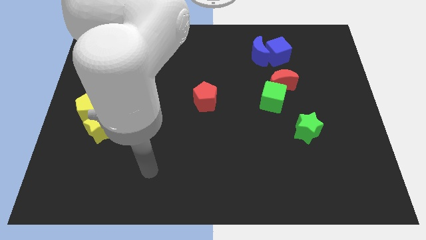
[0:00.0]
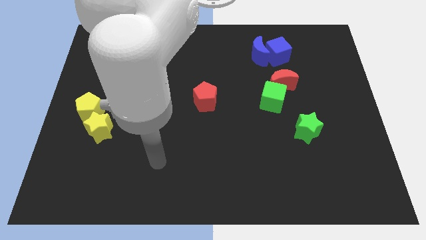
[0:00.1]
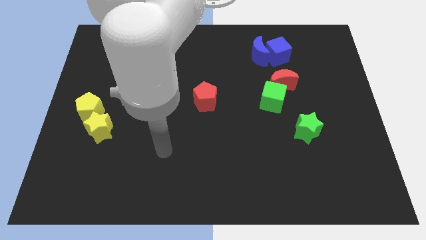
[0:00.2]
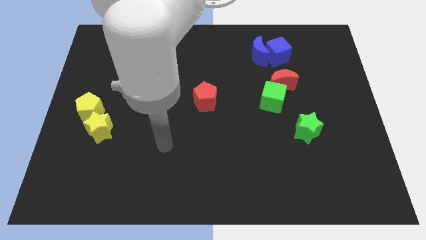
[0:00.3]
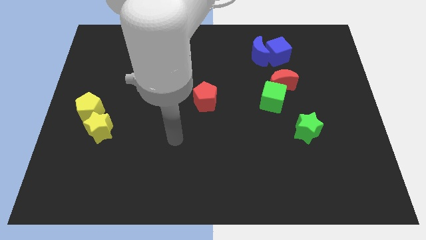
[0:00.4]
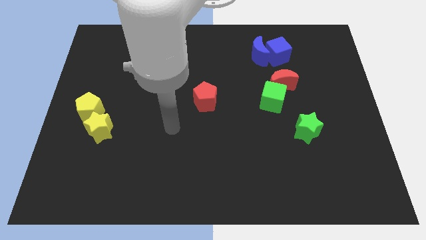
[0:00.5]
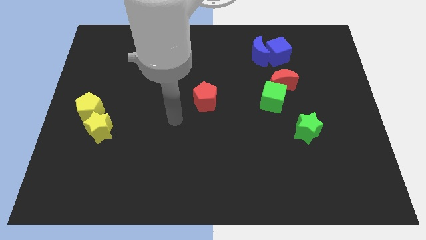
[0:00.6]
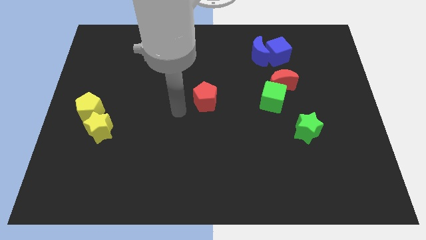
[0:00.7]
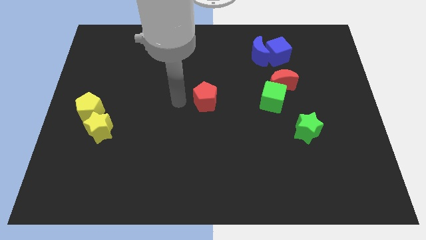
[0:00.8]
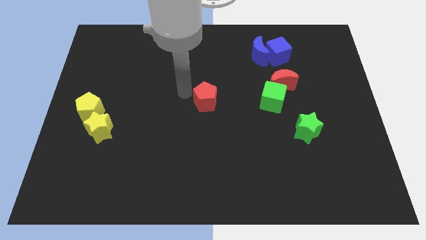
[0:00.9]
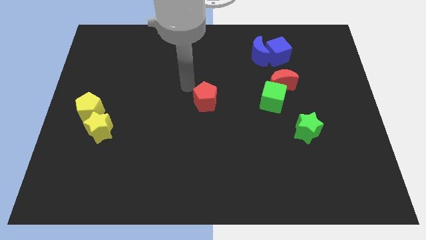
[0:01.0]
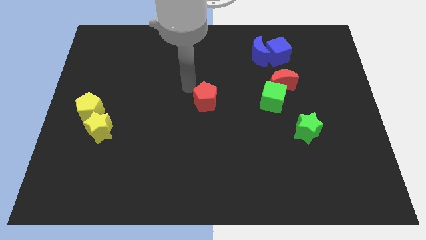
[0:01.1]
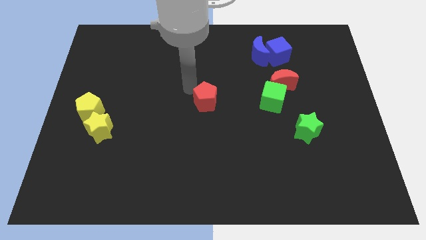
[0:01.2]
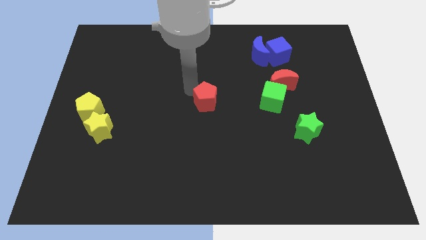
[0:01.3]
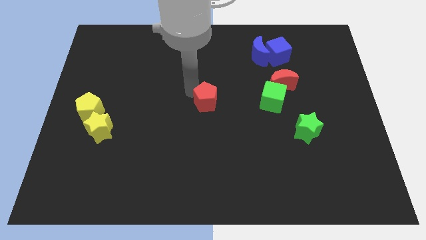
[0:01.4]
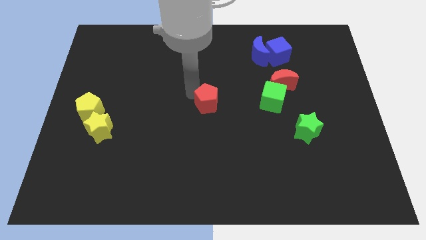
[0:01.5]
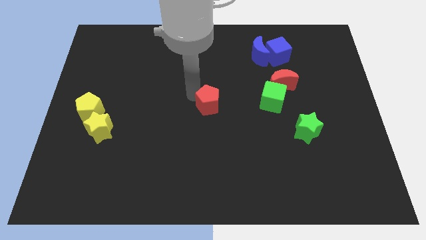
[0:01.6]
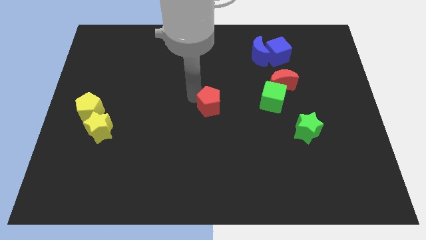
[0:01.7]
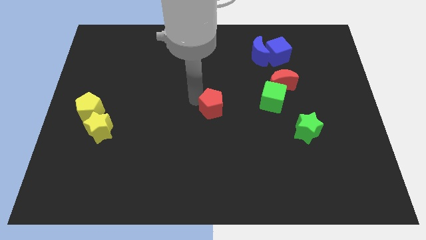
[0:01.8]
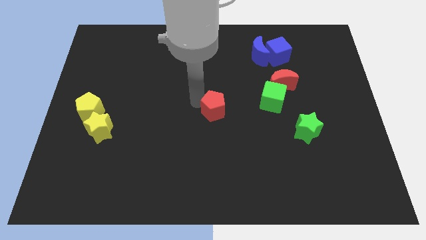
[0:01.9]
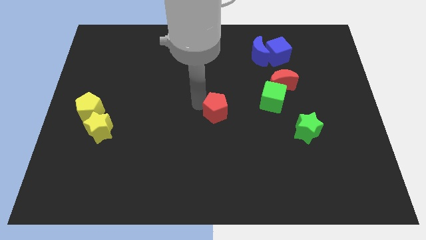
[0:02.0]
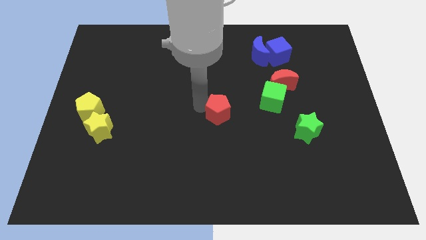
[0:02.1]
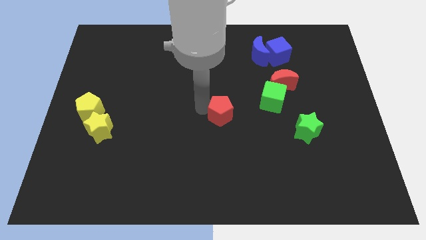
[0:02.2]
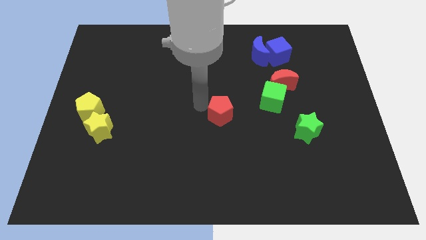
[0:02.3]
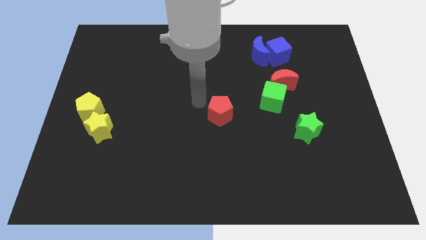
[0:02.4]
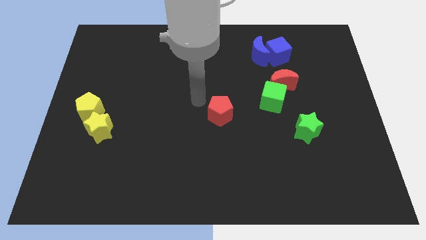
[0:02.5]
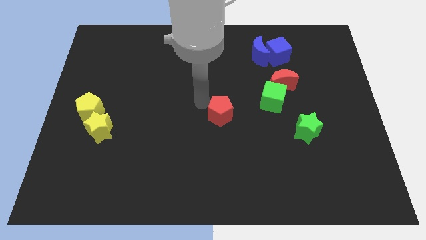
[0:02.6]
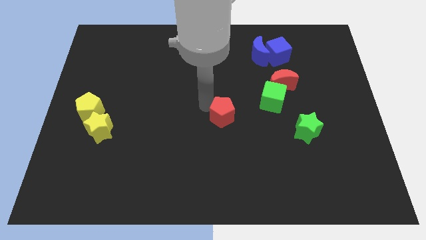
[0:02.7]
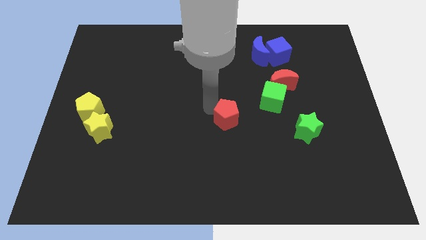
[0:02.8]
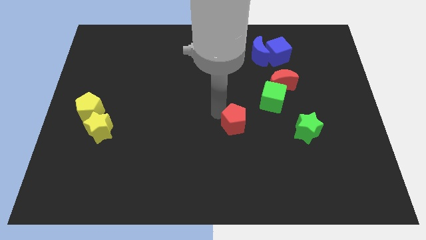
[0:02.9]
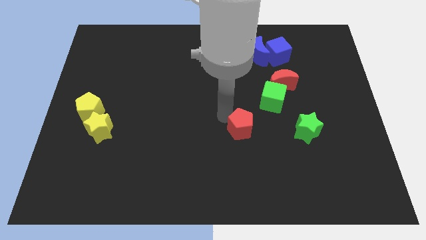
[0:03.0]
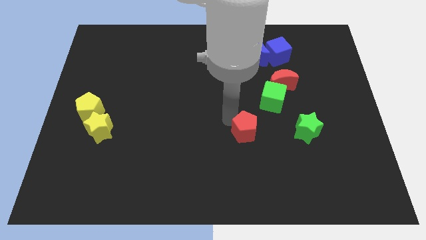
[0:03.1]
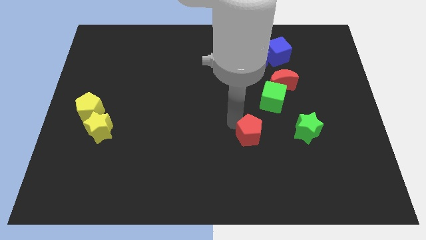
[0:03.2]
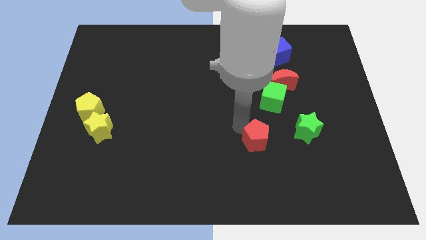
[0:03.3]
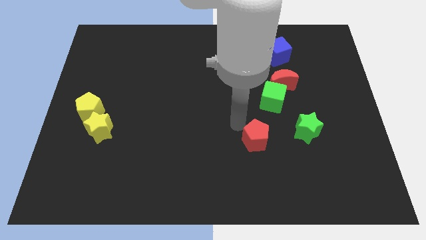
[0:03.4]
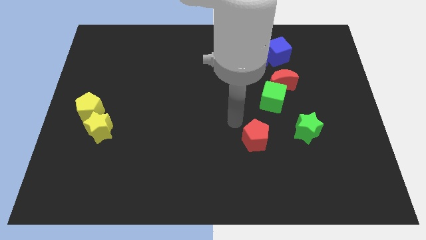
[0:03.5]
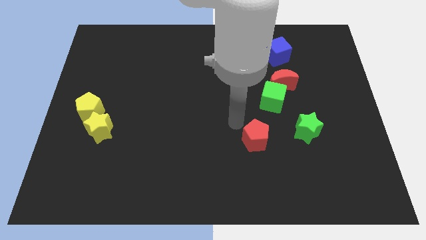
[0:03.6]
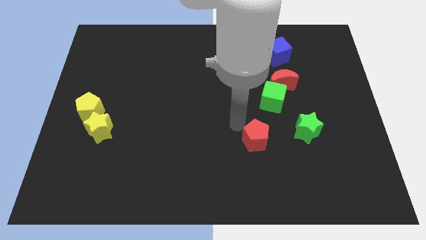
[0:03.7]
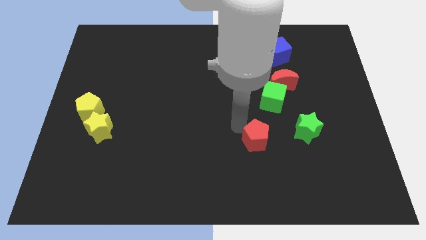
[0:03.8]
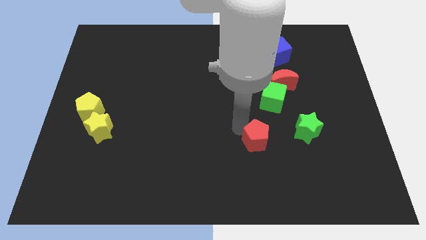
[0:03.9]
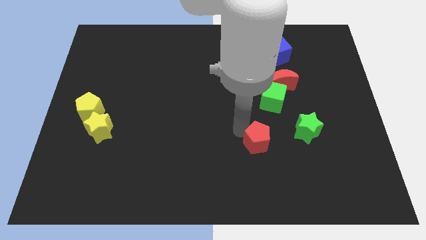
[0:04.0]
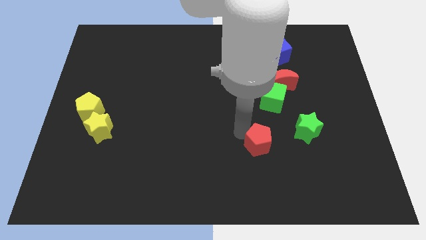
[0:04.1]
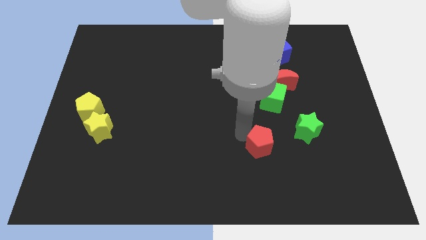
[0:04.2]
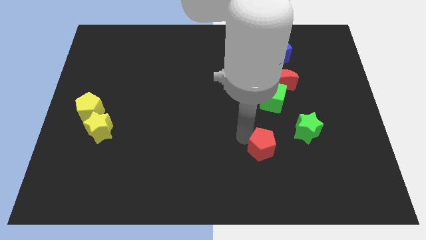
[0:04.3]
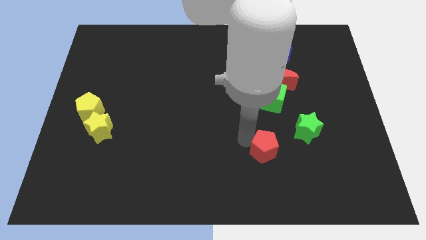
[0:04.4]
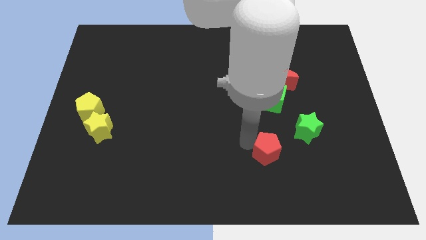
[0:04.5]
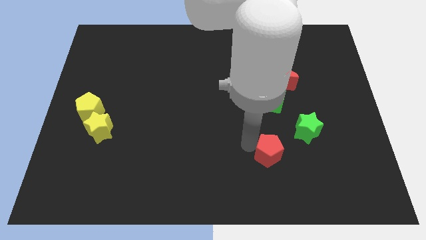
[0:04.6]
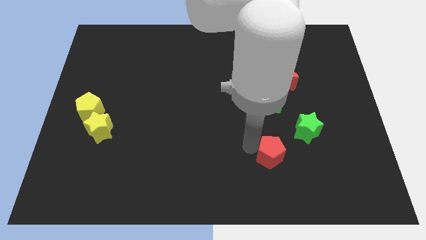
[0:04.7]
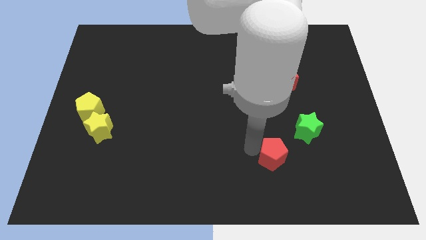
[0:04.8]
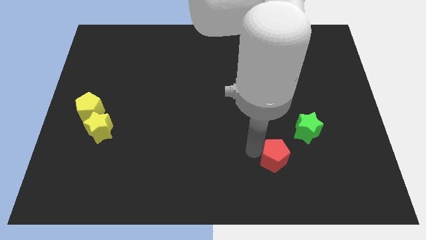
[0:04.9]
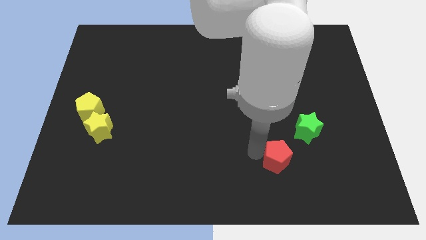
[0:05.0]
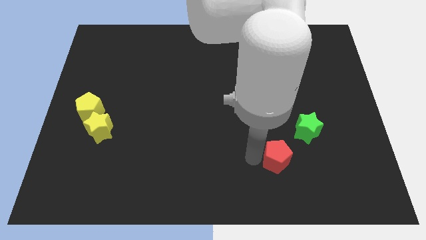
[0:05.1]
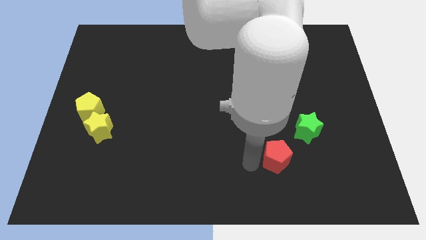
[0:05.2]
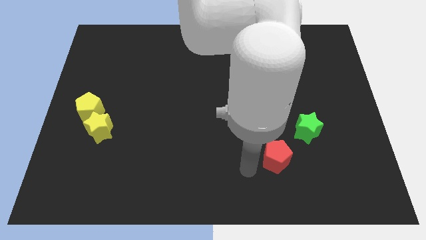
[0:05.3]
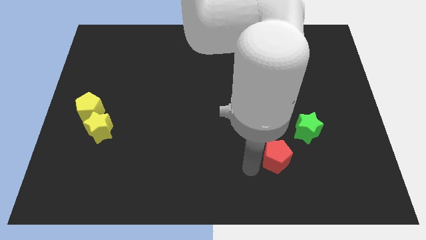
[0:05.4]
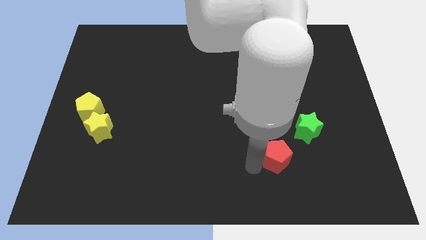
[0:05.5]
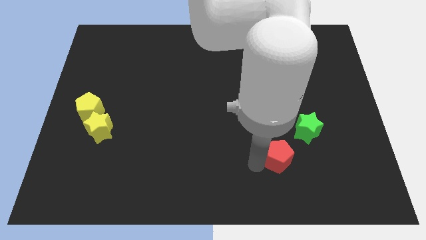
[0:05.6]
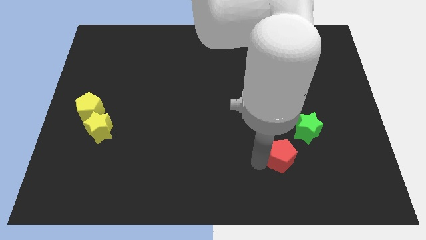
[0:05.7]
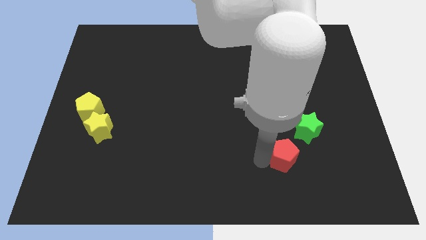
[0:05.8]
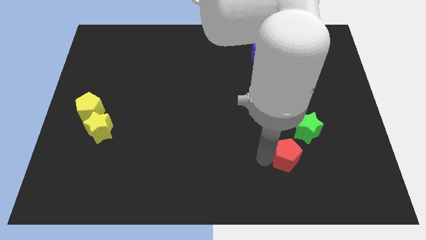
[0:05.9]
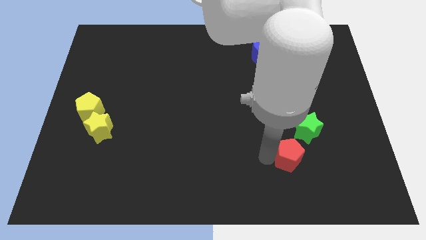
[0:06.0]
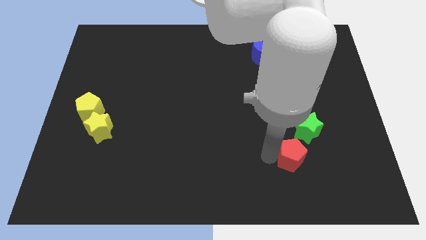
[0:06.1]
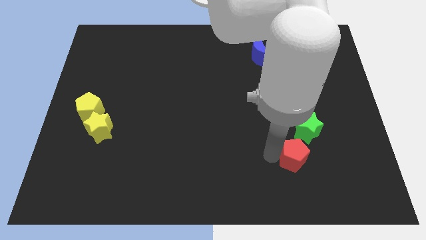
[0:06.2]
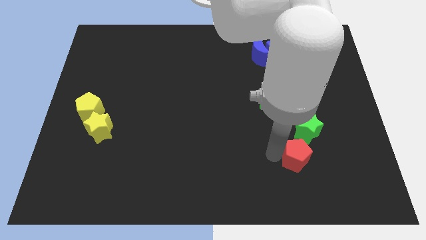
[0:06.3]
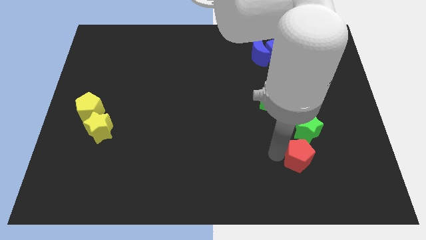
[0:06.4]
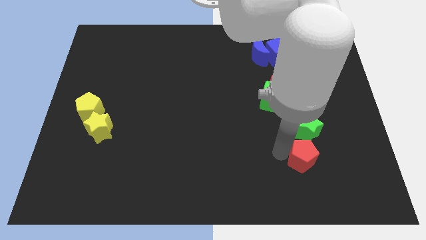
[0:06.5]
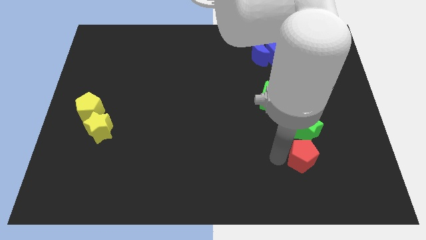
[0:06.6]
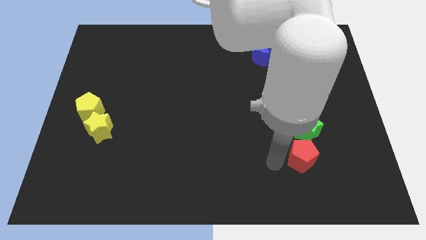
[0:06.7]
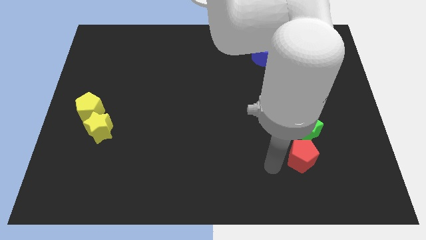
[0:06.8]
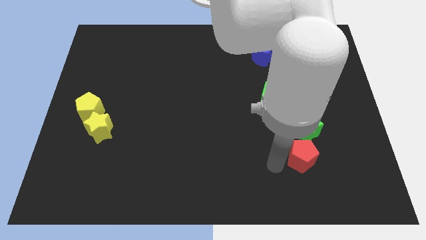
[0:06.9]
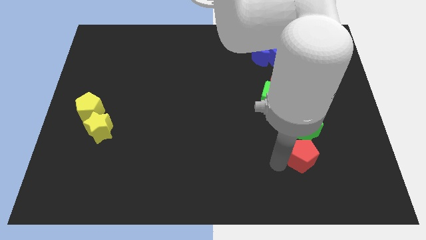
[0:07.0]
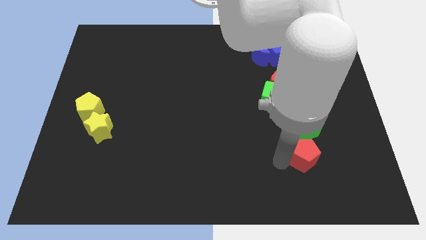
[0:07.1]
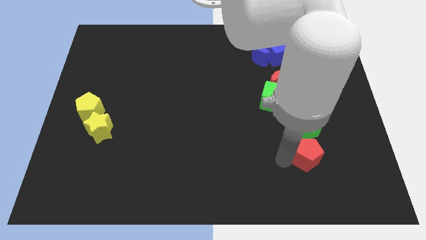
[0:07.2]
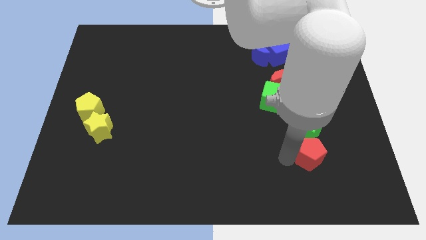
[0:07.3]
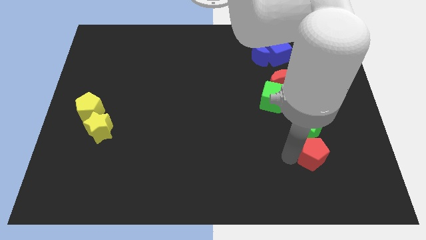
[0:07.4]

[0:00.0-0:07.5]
put the red pentagon diagonally down and to the right of the green star

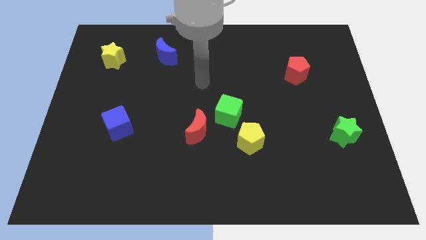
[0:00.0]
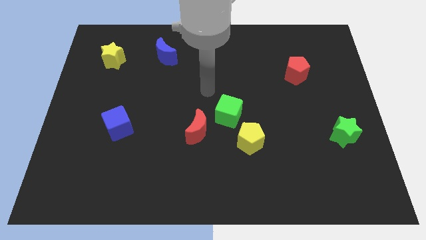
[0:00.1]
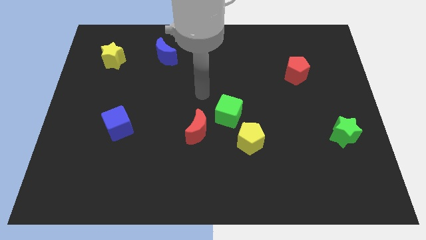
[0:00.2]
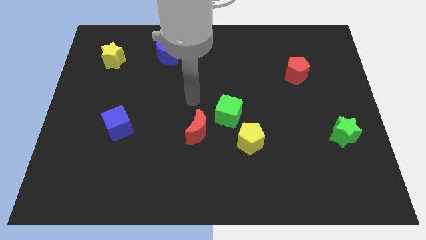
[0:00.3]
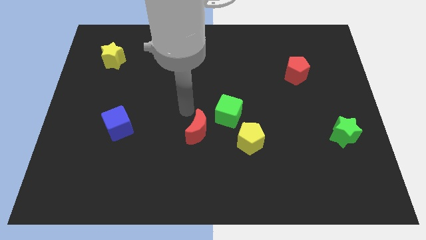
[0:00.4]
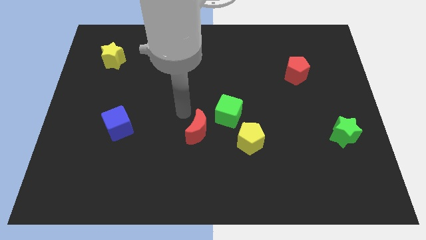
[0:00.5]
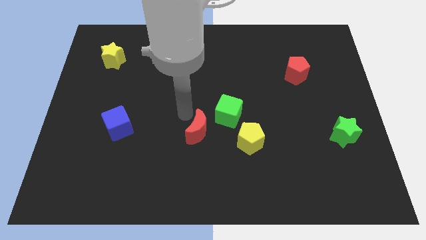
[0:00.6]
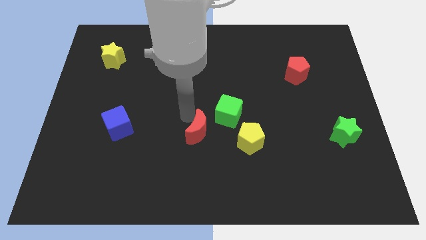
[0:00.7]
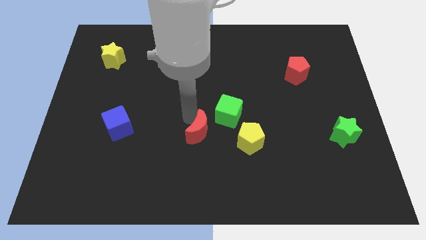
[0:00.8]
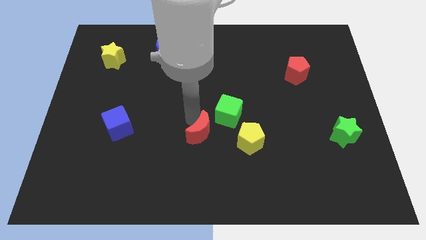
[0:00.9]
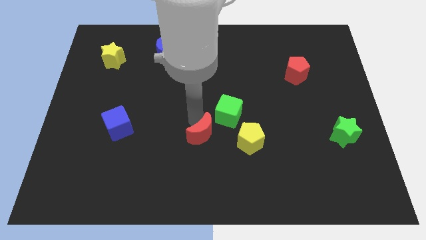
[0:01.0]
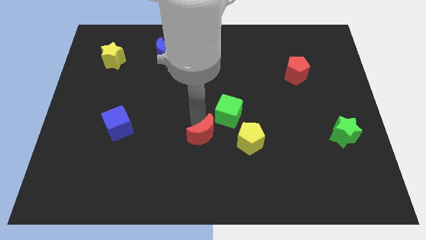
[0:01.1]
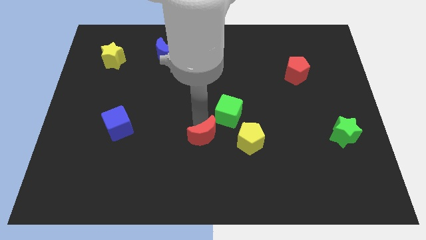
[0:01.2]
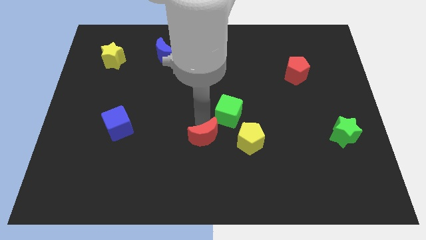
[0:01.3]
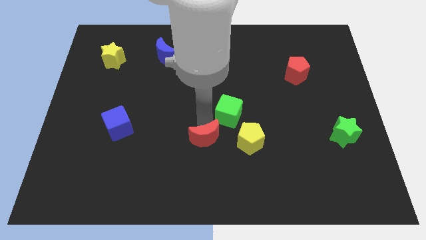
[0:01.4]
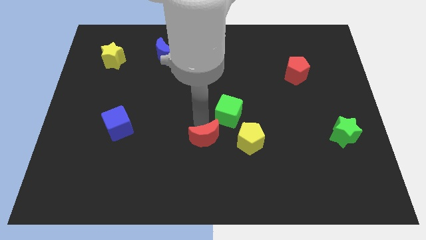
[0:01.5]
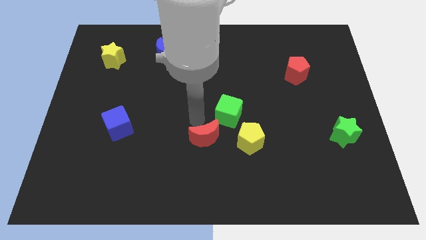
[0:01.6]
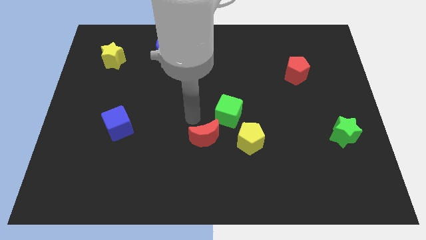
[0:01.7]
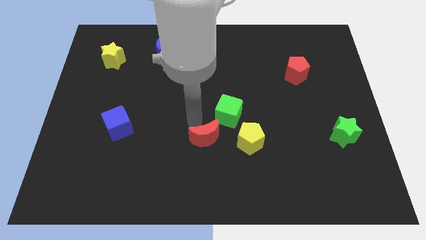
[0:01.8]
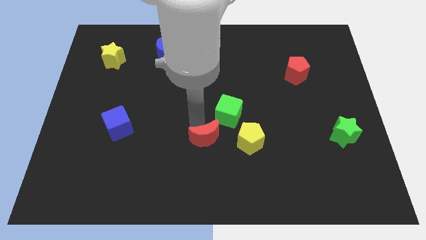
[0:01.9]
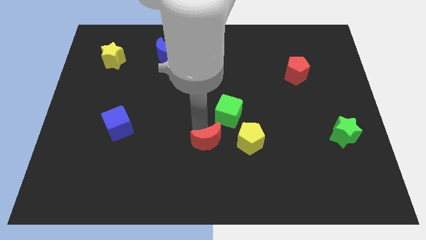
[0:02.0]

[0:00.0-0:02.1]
put the red moon below the green cube
